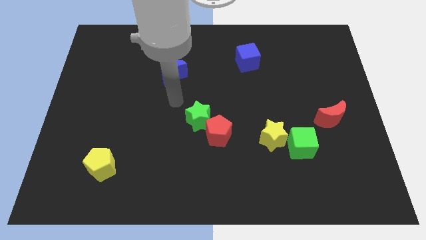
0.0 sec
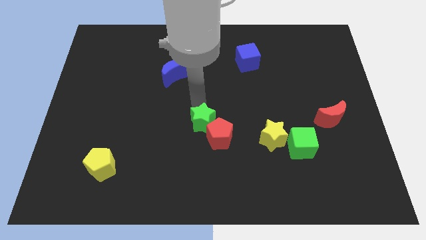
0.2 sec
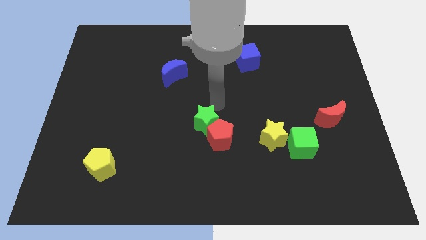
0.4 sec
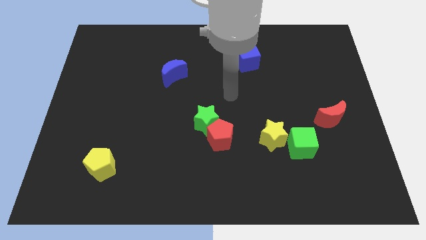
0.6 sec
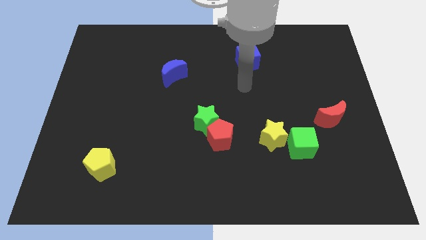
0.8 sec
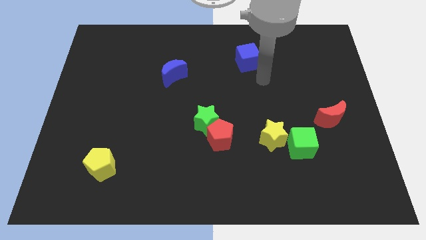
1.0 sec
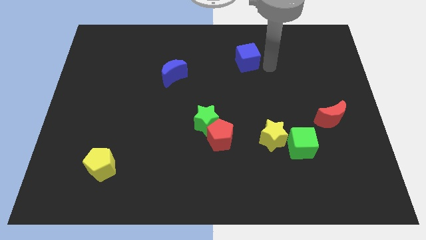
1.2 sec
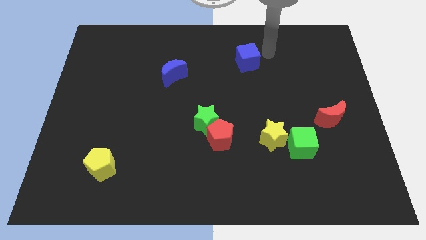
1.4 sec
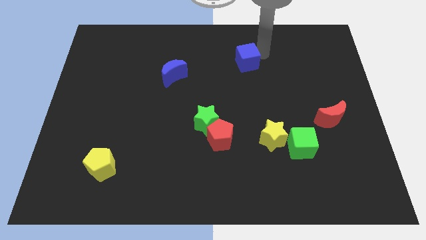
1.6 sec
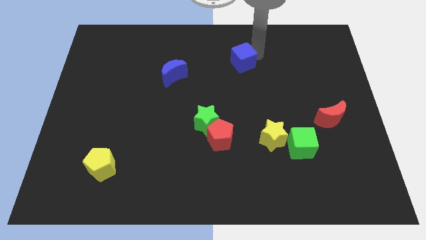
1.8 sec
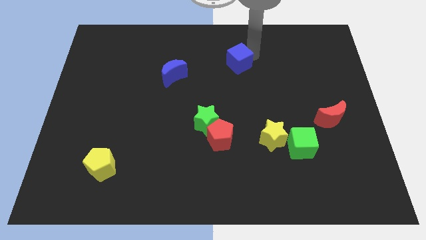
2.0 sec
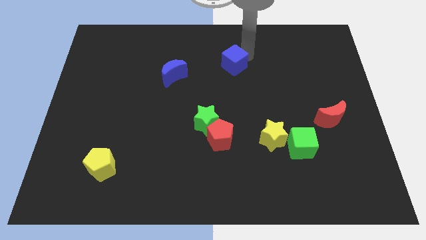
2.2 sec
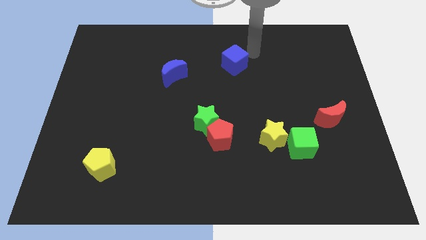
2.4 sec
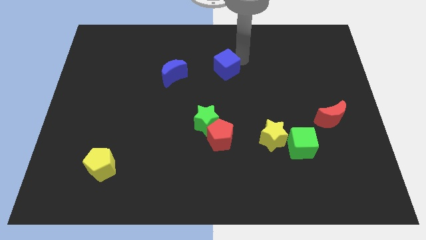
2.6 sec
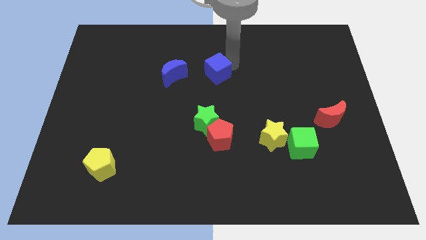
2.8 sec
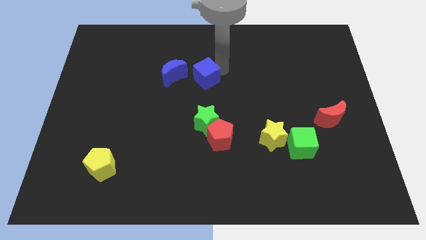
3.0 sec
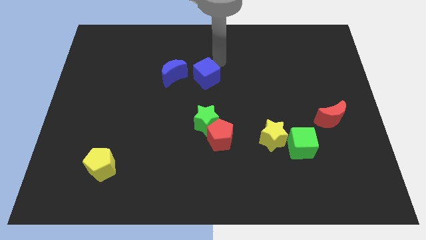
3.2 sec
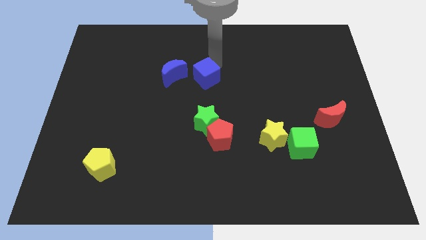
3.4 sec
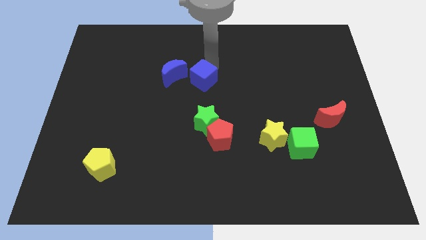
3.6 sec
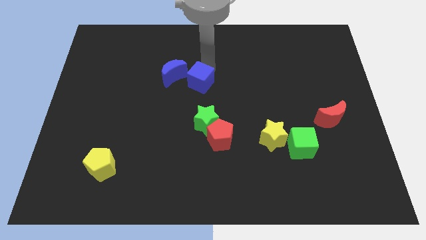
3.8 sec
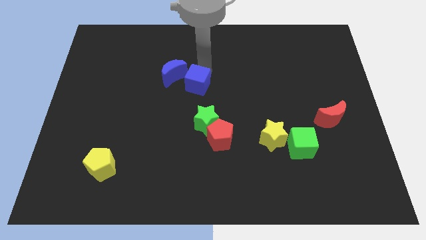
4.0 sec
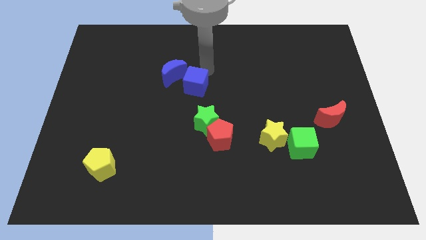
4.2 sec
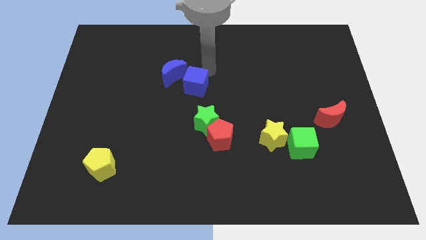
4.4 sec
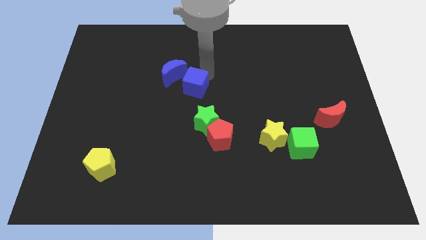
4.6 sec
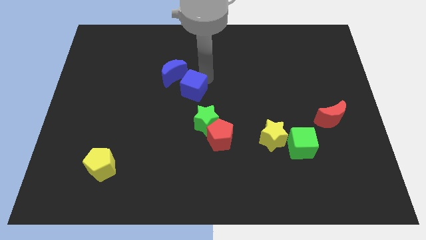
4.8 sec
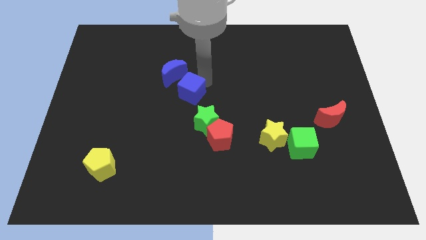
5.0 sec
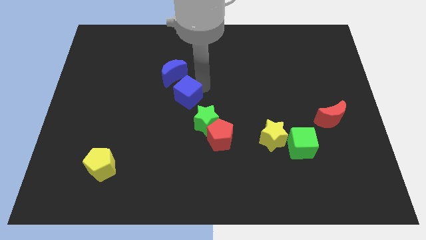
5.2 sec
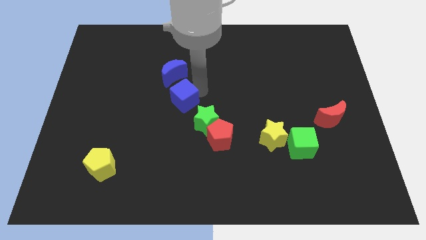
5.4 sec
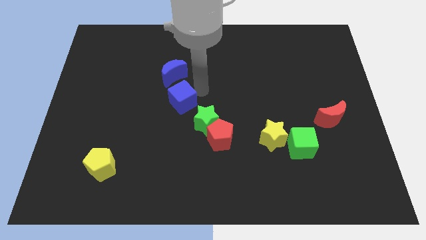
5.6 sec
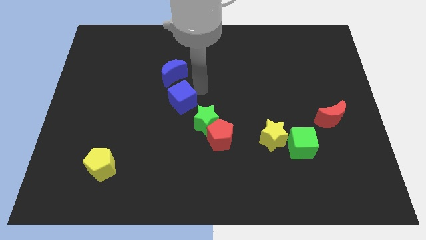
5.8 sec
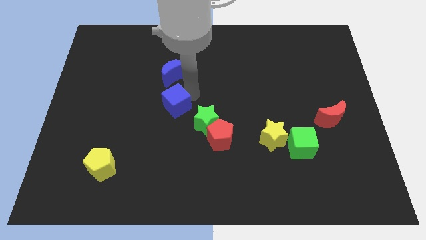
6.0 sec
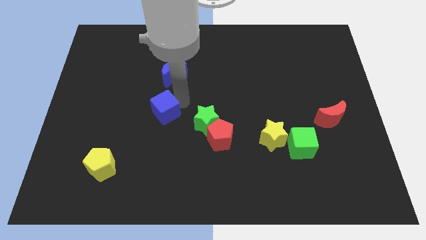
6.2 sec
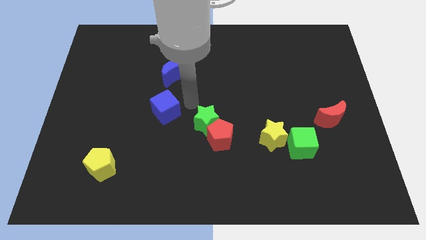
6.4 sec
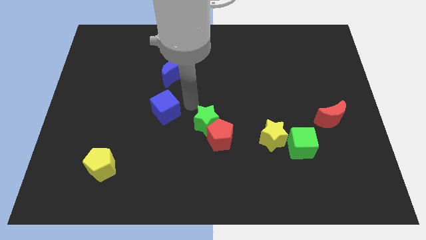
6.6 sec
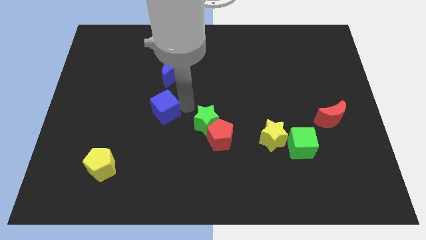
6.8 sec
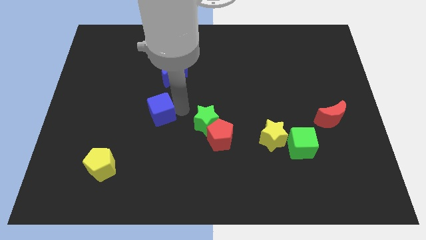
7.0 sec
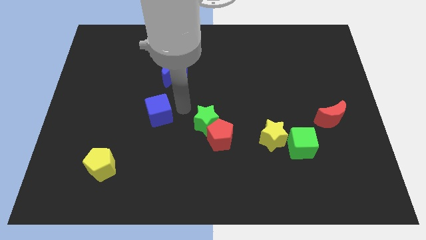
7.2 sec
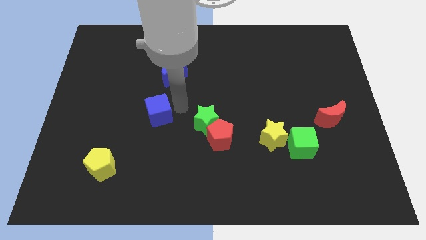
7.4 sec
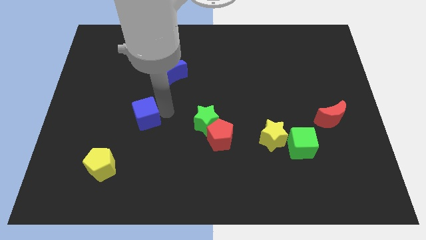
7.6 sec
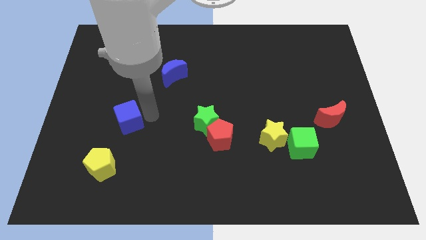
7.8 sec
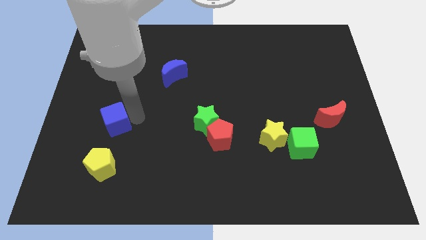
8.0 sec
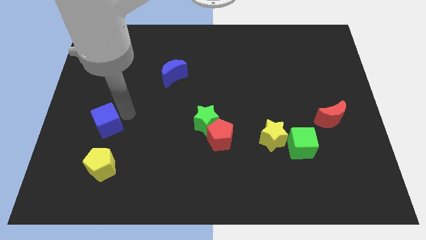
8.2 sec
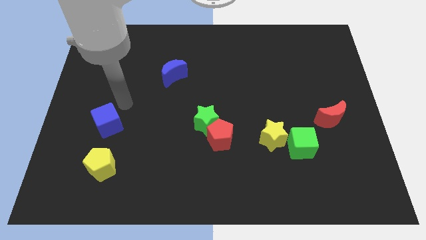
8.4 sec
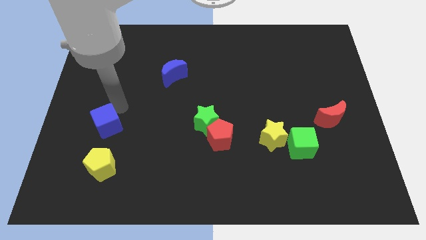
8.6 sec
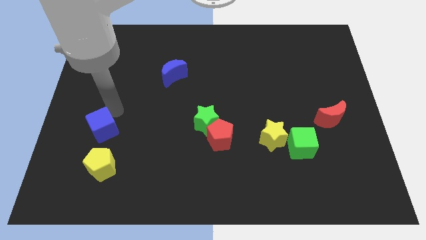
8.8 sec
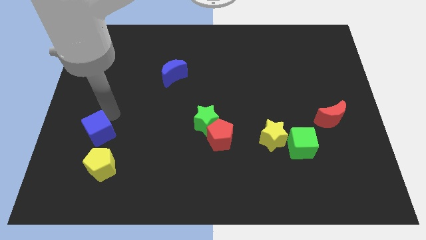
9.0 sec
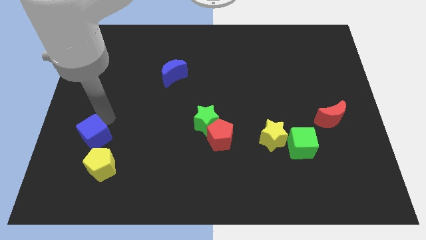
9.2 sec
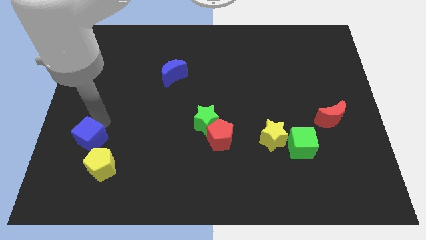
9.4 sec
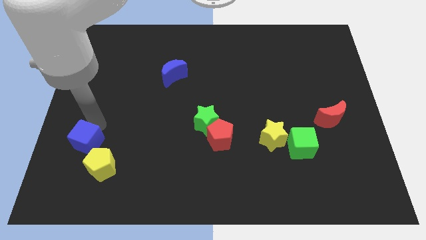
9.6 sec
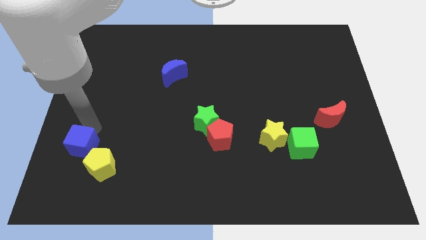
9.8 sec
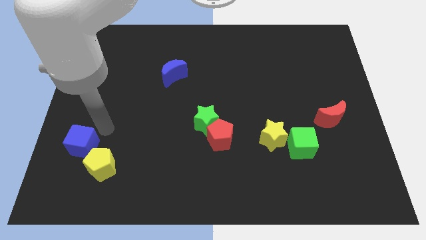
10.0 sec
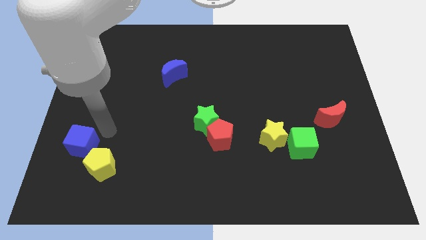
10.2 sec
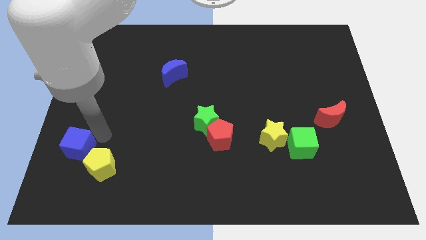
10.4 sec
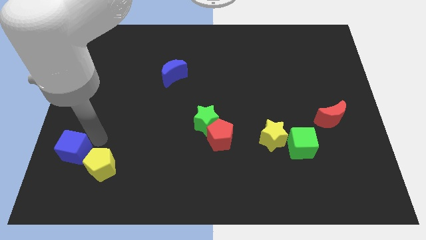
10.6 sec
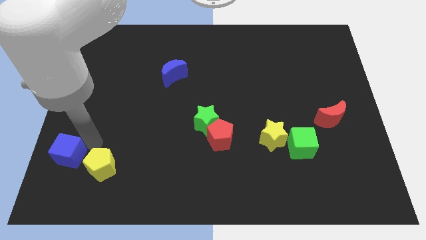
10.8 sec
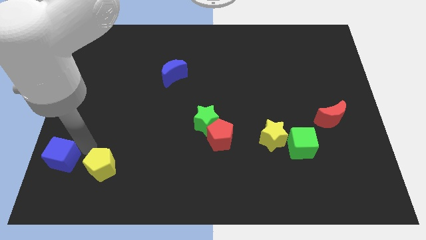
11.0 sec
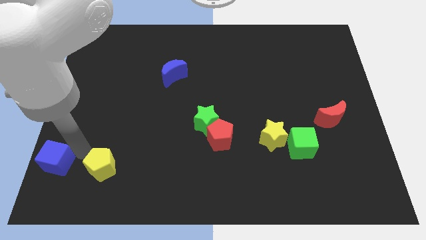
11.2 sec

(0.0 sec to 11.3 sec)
push the blue cube to the bottom left corner

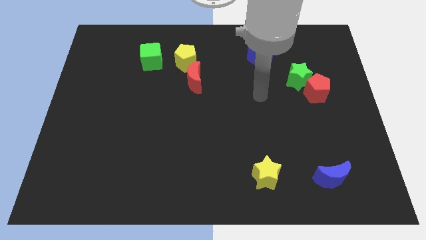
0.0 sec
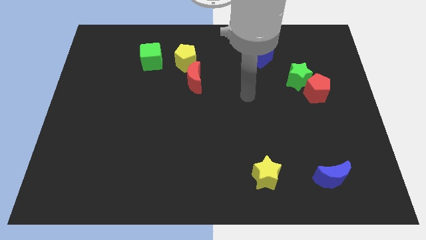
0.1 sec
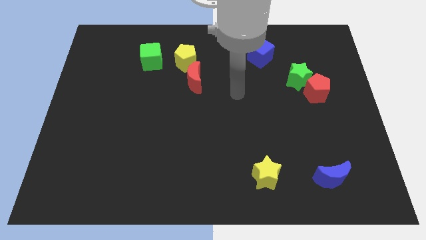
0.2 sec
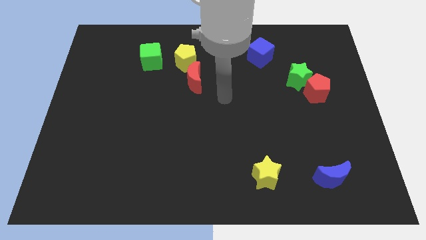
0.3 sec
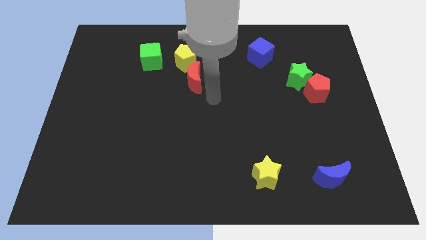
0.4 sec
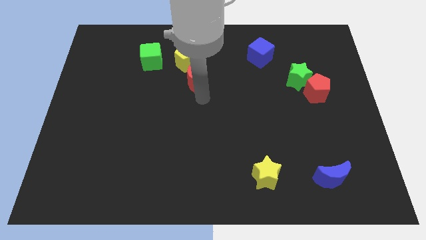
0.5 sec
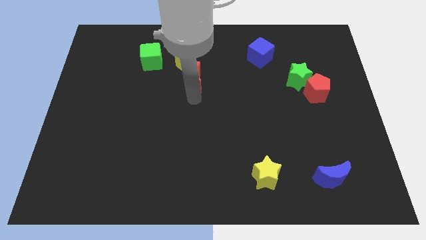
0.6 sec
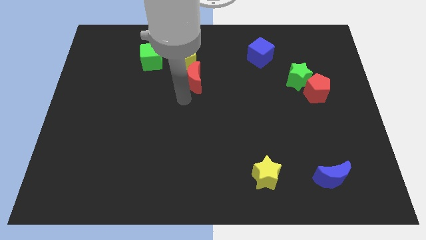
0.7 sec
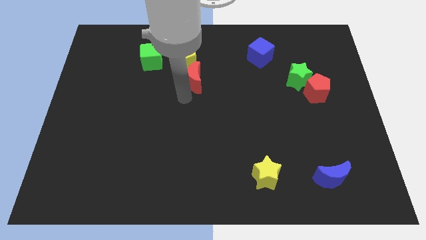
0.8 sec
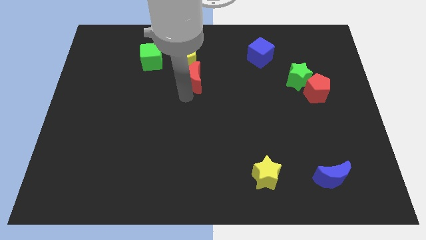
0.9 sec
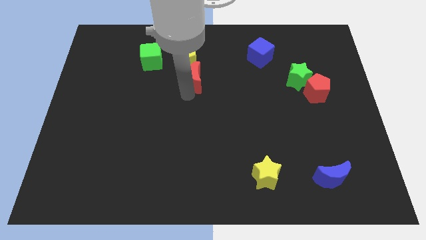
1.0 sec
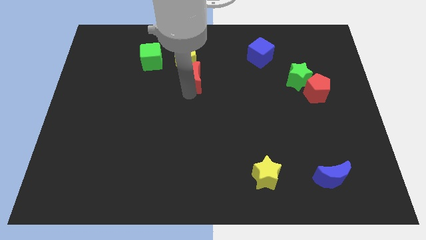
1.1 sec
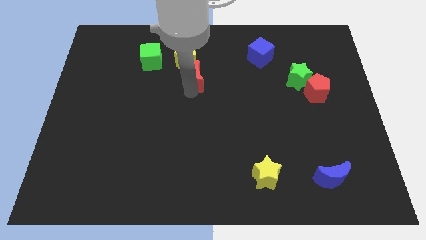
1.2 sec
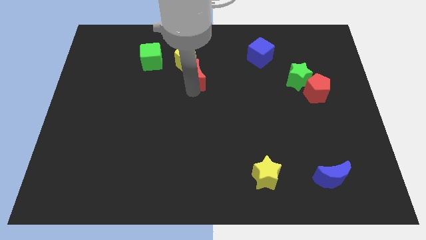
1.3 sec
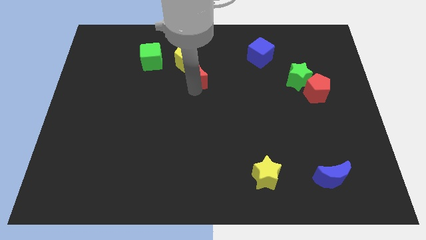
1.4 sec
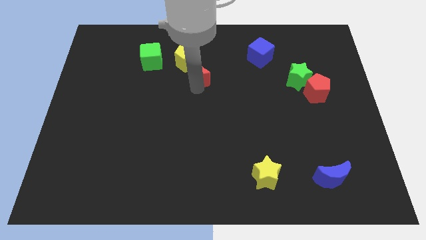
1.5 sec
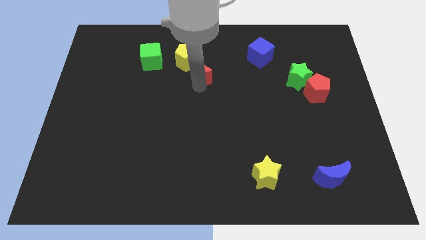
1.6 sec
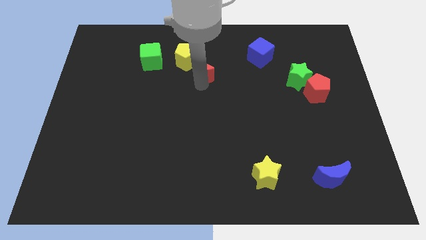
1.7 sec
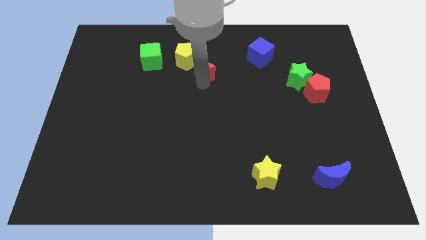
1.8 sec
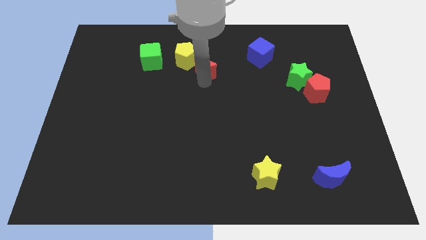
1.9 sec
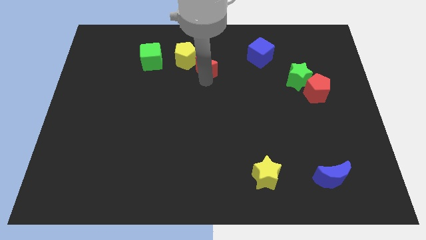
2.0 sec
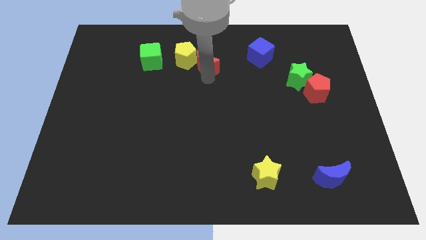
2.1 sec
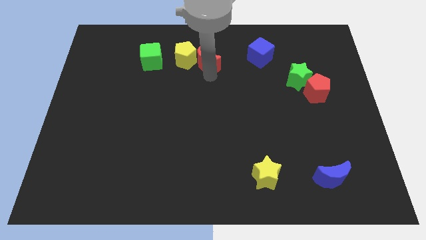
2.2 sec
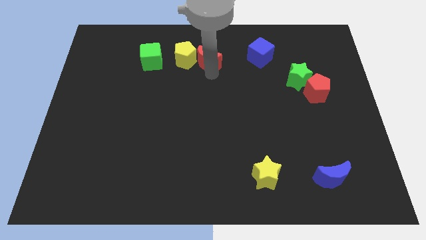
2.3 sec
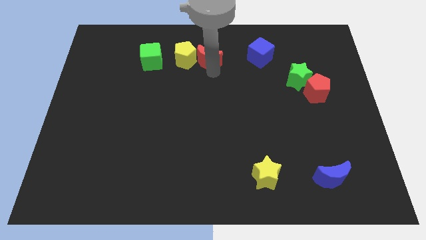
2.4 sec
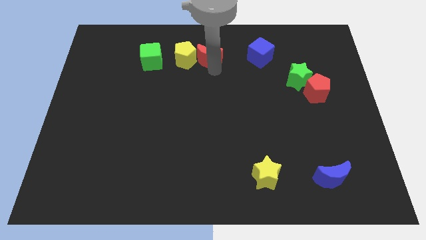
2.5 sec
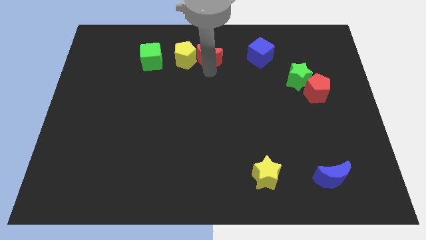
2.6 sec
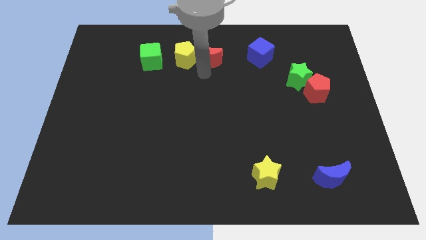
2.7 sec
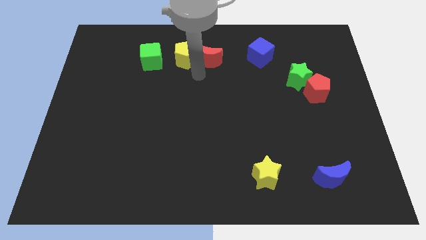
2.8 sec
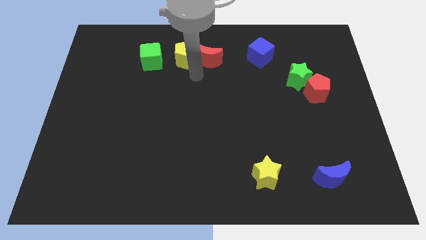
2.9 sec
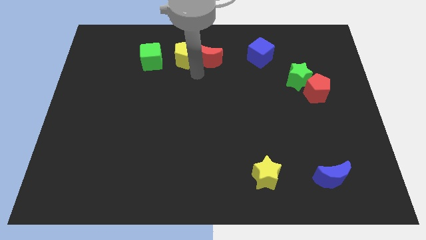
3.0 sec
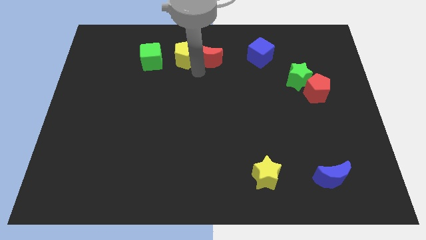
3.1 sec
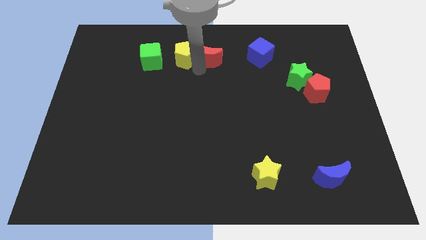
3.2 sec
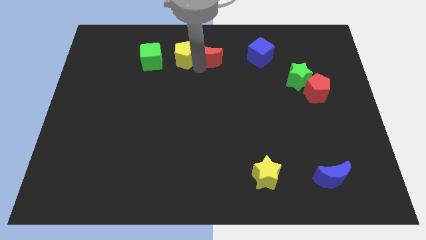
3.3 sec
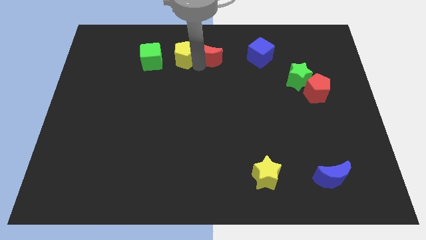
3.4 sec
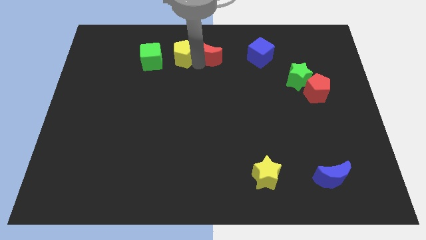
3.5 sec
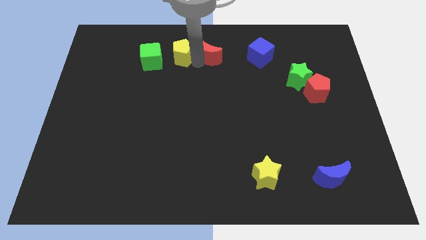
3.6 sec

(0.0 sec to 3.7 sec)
put the red moon to the top
